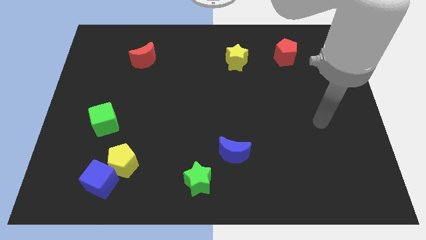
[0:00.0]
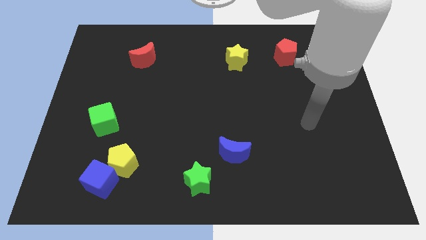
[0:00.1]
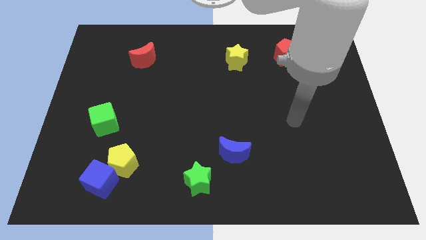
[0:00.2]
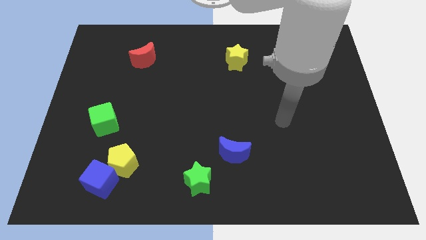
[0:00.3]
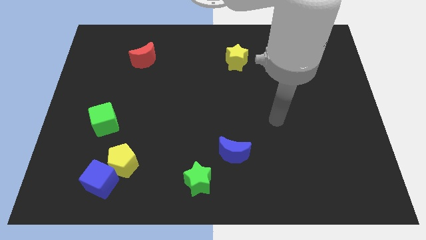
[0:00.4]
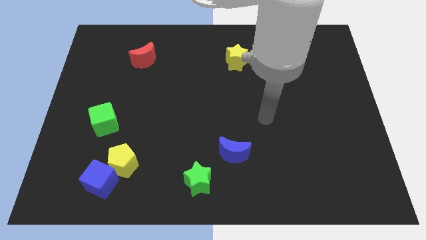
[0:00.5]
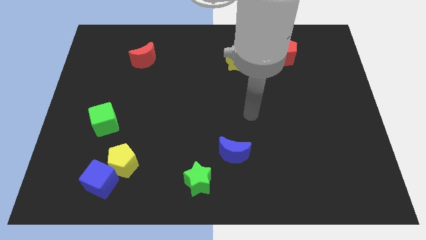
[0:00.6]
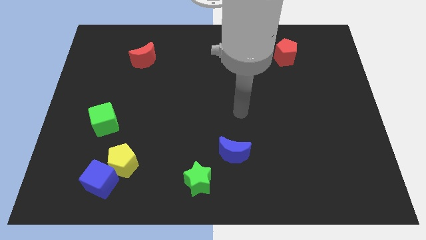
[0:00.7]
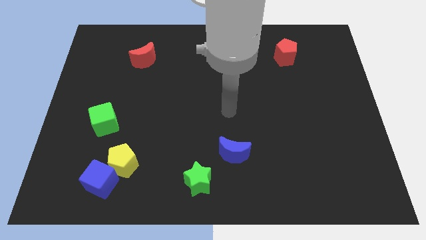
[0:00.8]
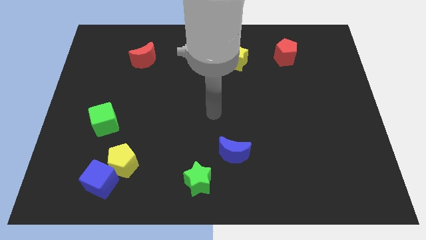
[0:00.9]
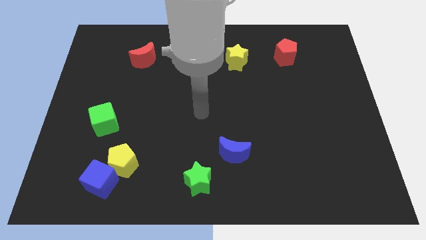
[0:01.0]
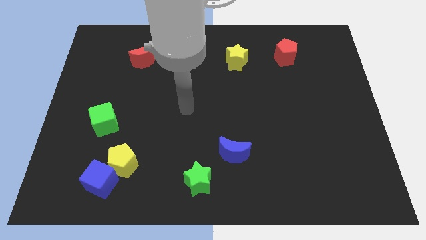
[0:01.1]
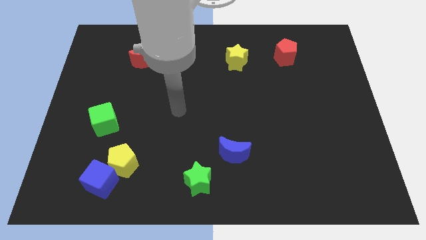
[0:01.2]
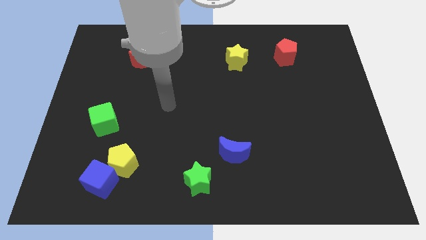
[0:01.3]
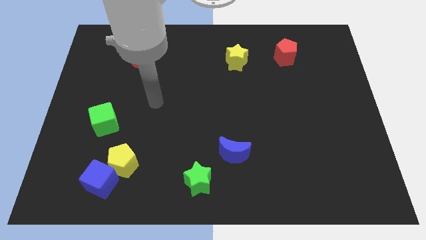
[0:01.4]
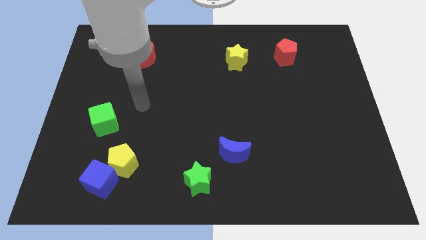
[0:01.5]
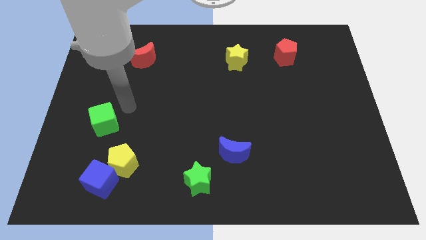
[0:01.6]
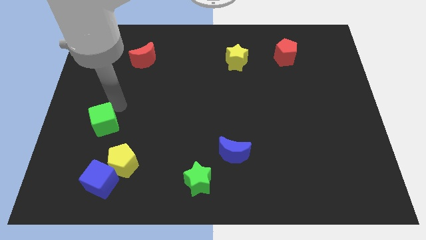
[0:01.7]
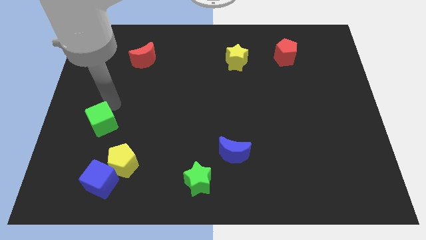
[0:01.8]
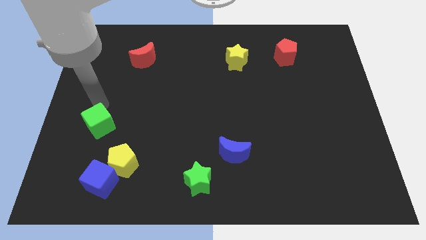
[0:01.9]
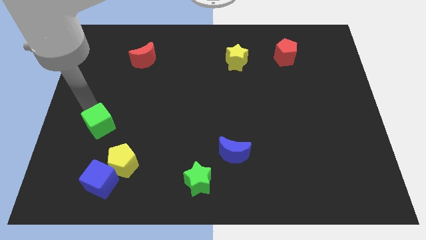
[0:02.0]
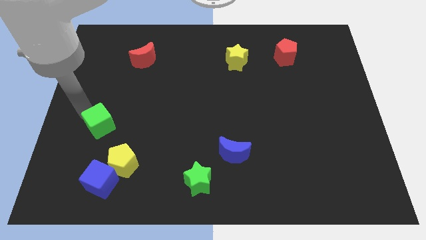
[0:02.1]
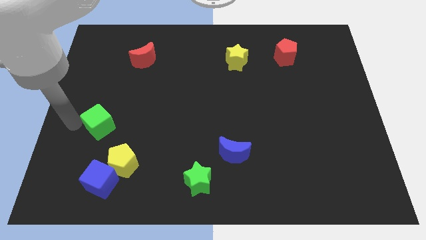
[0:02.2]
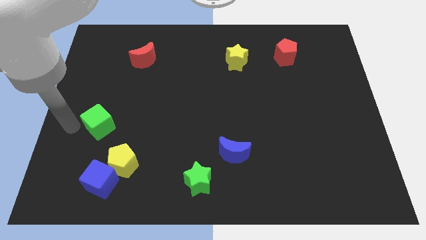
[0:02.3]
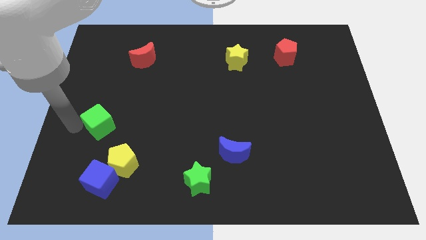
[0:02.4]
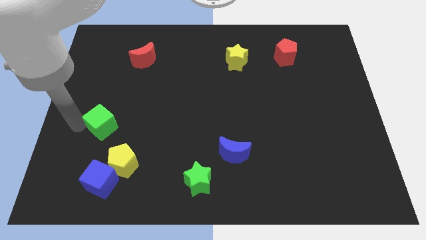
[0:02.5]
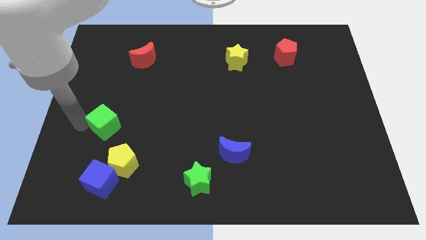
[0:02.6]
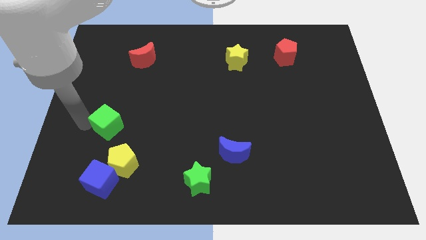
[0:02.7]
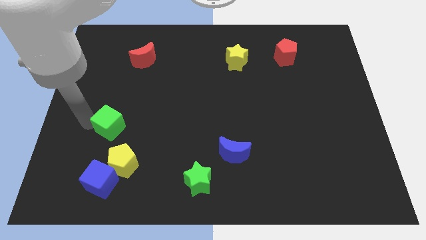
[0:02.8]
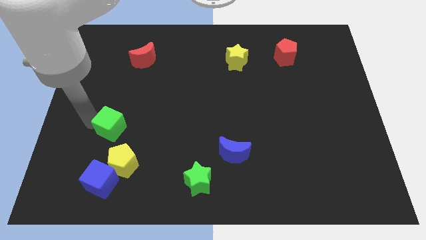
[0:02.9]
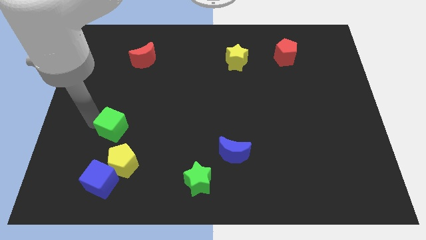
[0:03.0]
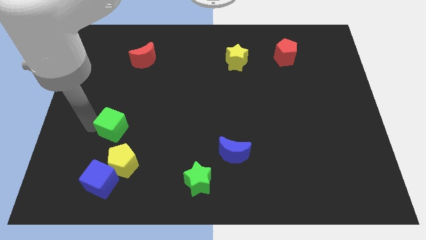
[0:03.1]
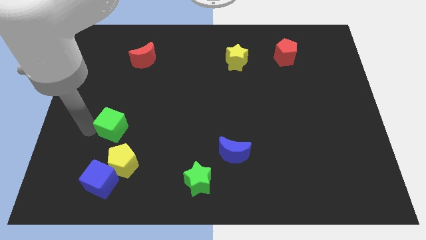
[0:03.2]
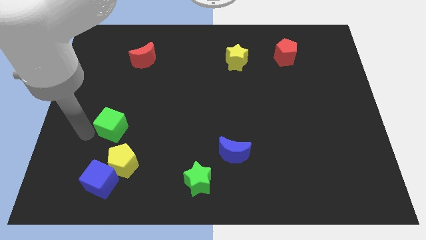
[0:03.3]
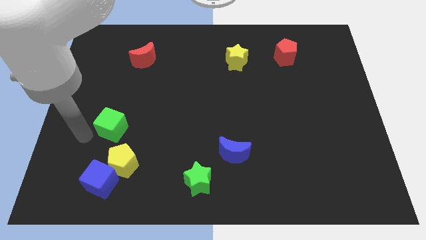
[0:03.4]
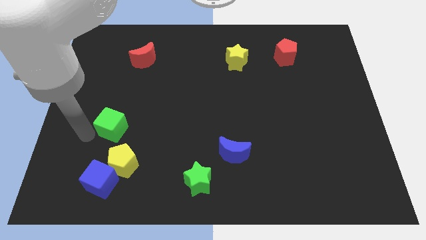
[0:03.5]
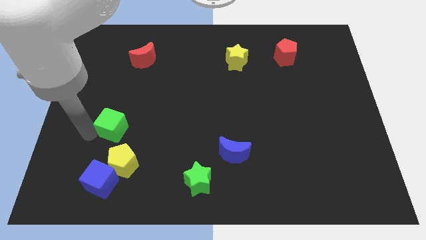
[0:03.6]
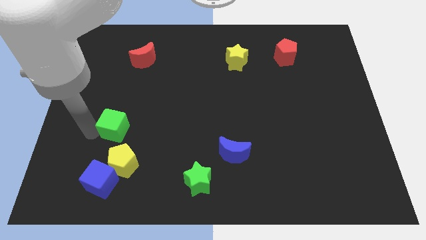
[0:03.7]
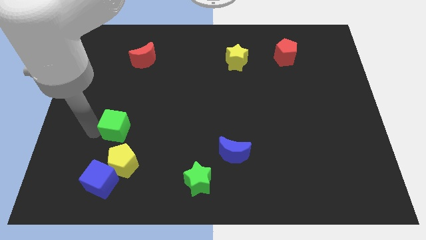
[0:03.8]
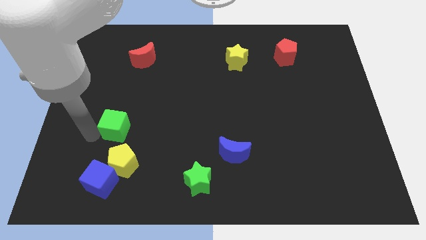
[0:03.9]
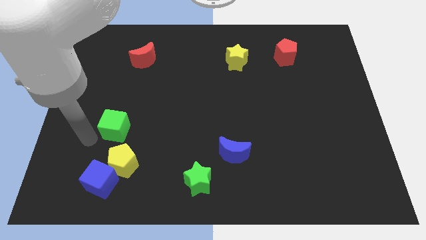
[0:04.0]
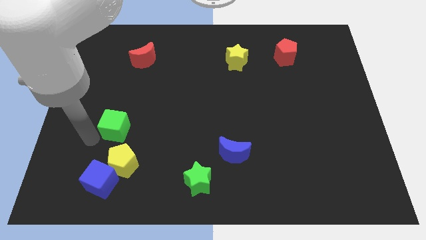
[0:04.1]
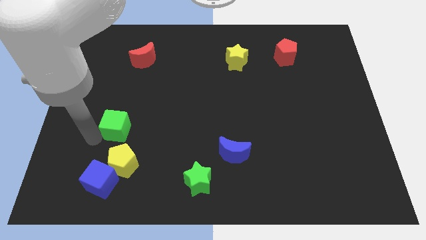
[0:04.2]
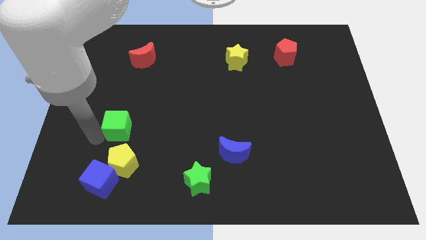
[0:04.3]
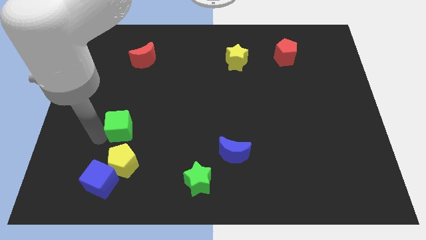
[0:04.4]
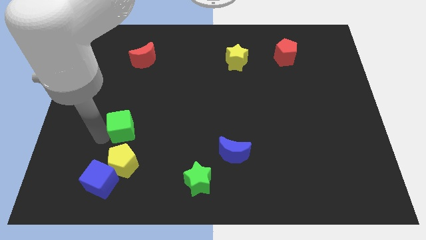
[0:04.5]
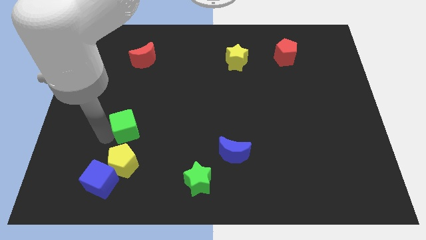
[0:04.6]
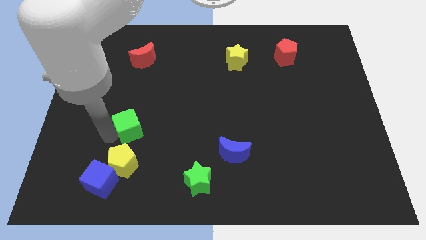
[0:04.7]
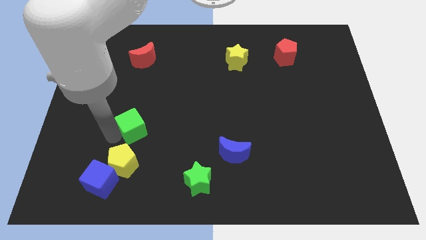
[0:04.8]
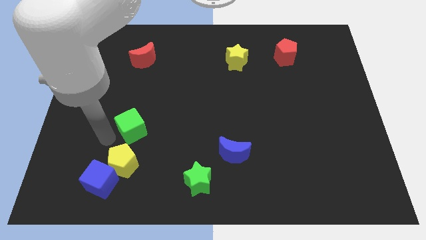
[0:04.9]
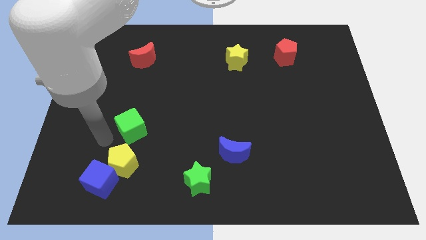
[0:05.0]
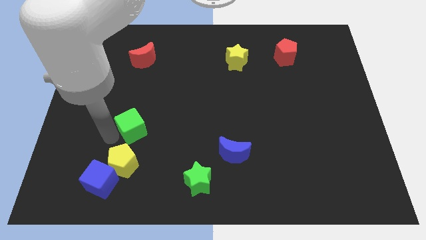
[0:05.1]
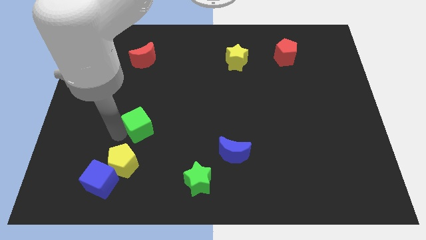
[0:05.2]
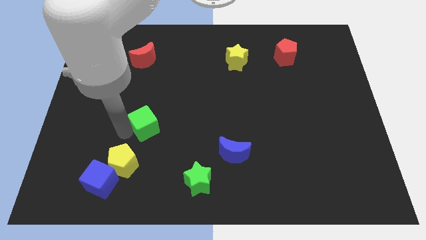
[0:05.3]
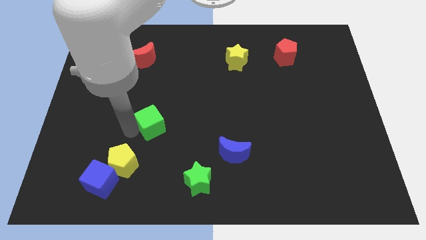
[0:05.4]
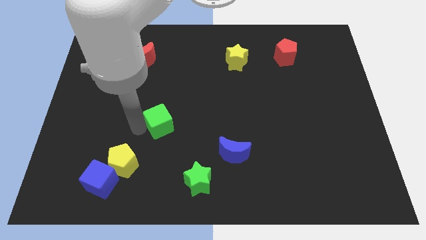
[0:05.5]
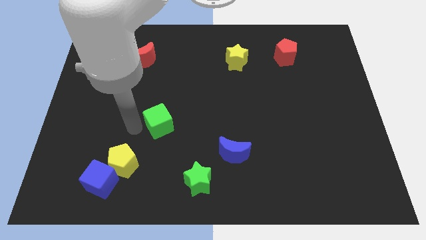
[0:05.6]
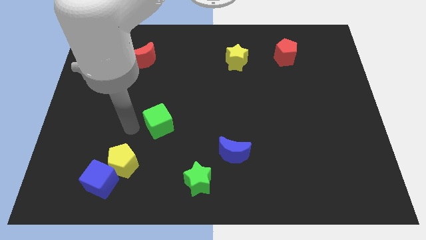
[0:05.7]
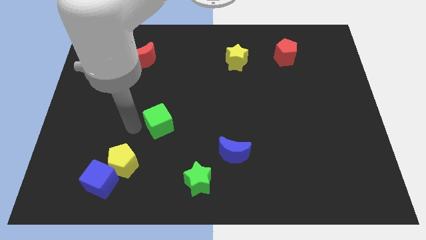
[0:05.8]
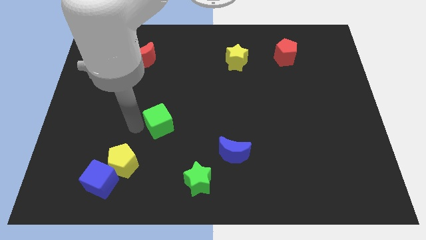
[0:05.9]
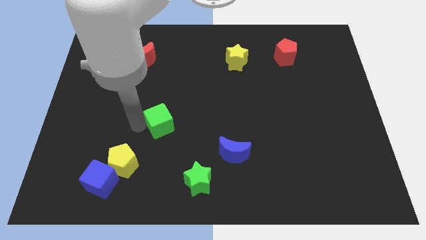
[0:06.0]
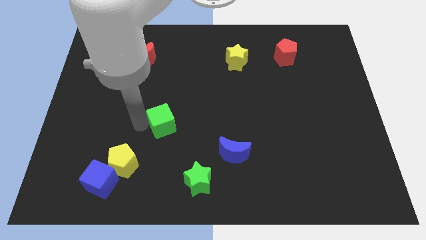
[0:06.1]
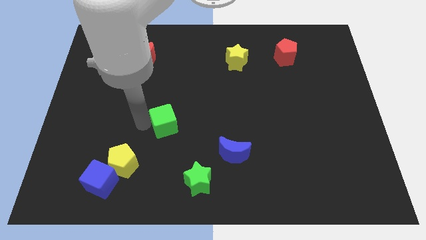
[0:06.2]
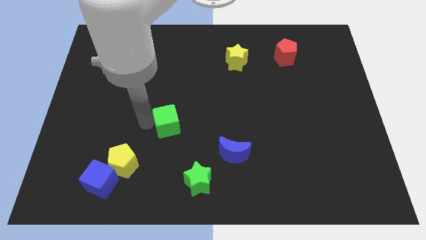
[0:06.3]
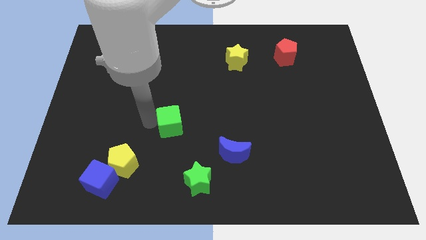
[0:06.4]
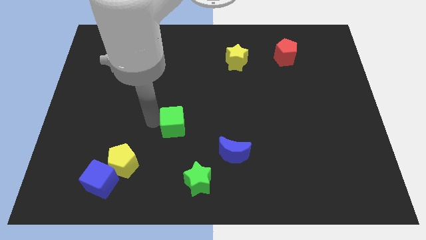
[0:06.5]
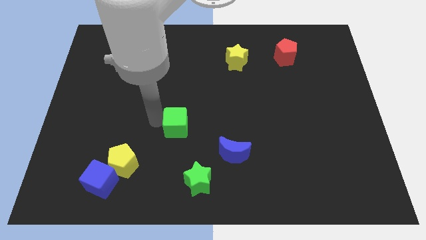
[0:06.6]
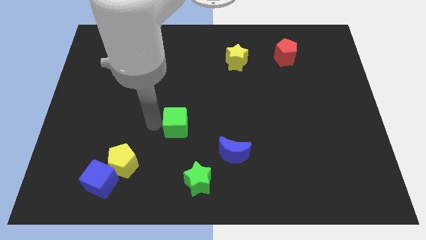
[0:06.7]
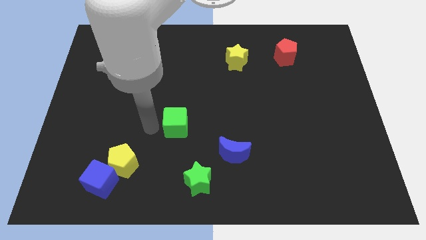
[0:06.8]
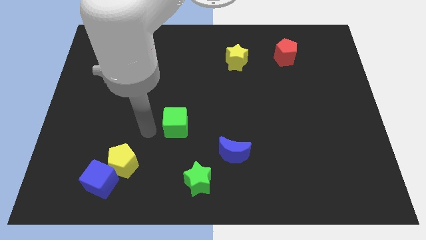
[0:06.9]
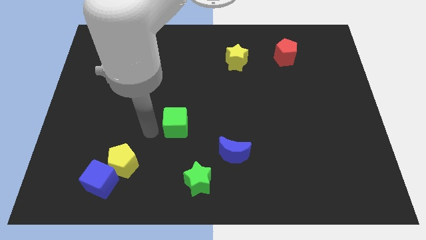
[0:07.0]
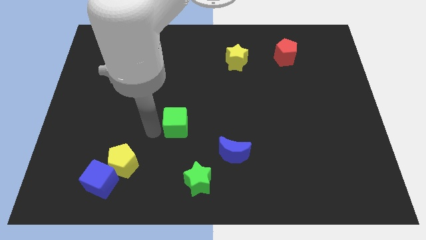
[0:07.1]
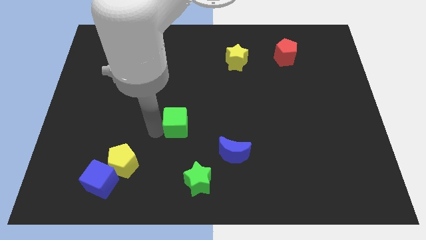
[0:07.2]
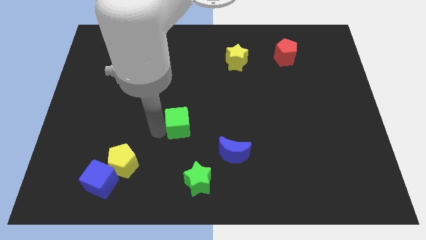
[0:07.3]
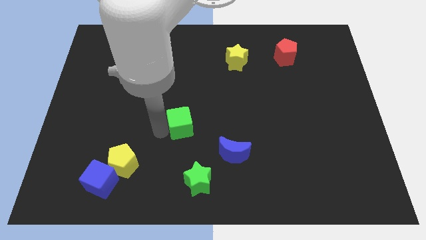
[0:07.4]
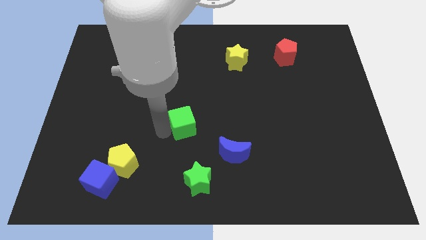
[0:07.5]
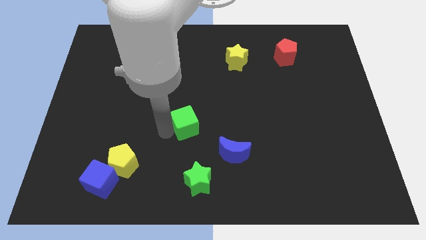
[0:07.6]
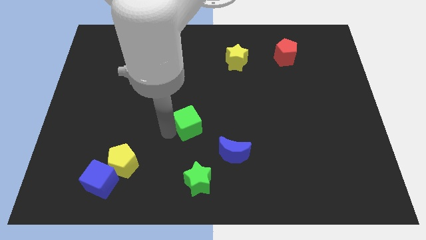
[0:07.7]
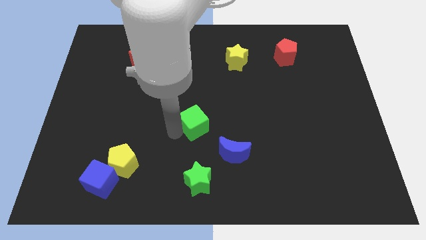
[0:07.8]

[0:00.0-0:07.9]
move the green cube to the right
